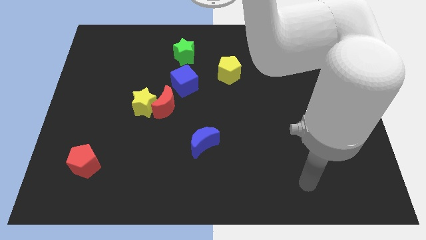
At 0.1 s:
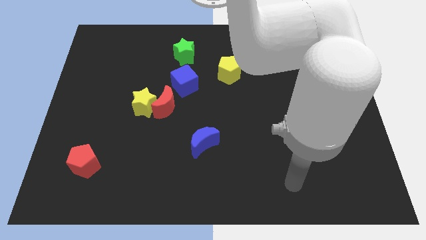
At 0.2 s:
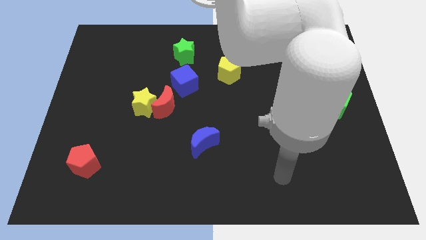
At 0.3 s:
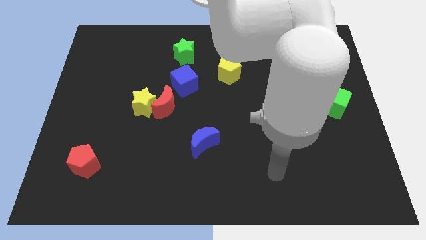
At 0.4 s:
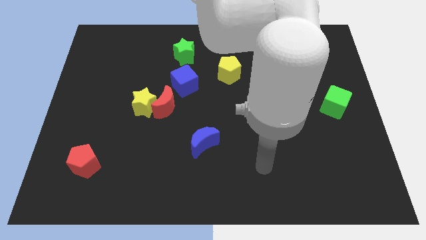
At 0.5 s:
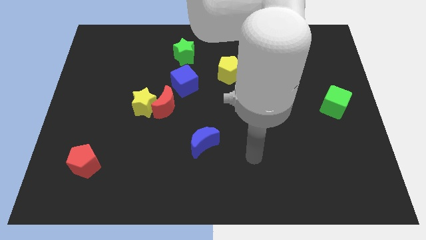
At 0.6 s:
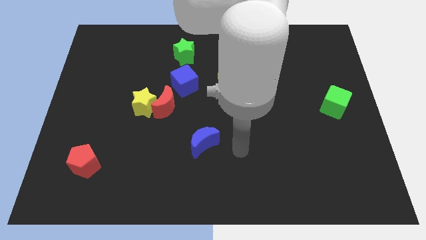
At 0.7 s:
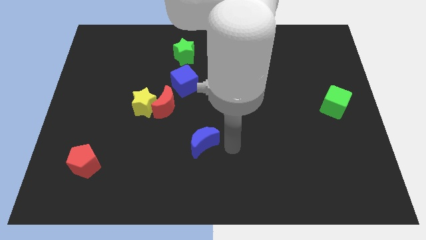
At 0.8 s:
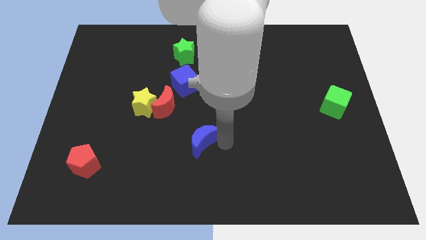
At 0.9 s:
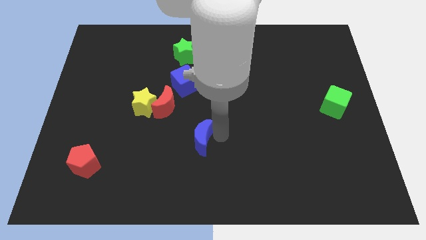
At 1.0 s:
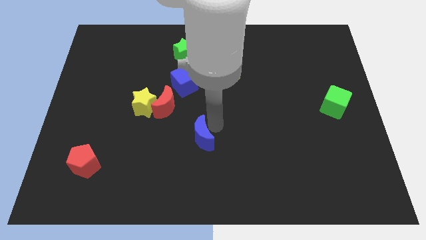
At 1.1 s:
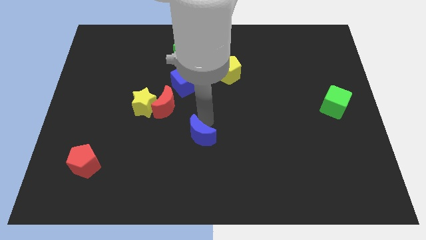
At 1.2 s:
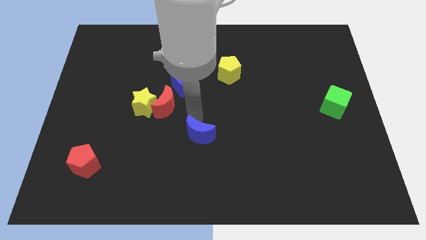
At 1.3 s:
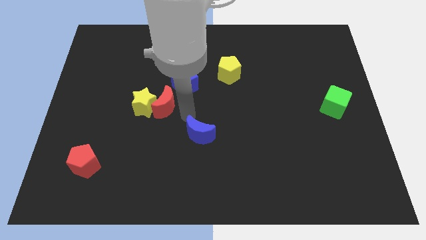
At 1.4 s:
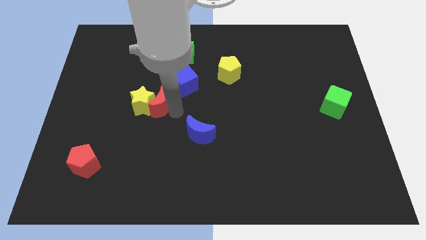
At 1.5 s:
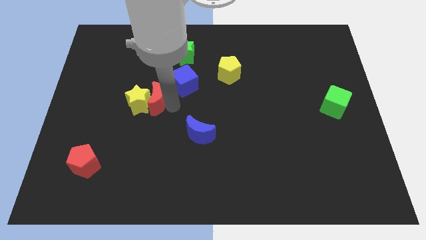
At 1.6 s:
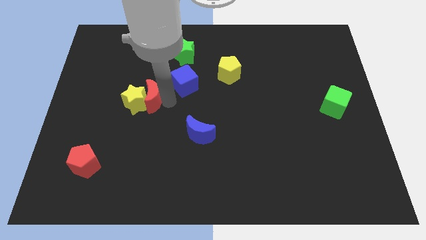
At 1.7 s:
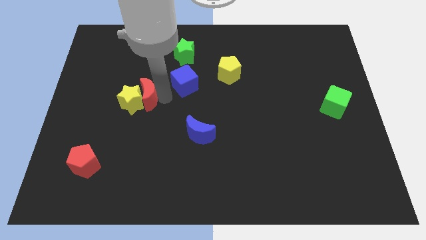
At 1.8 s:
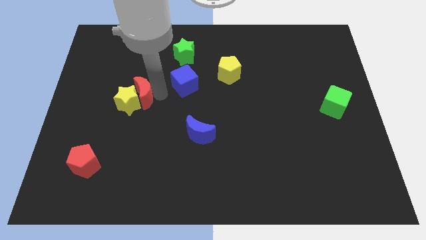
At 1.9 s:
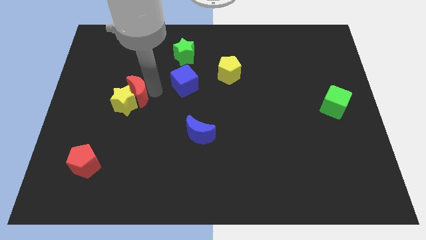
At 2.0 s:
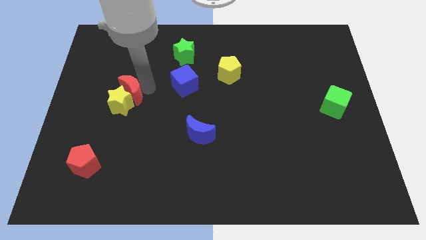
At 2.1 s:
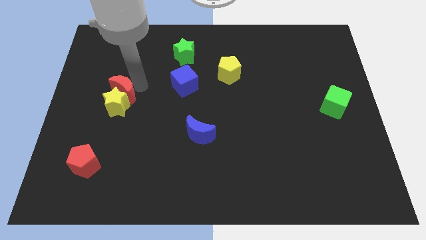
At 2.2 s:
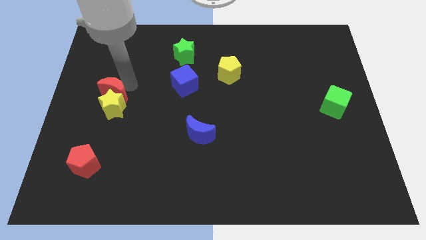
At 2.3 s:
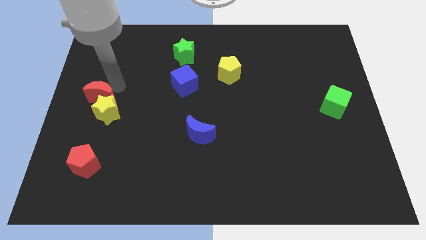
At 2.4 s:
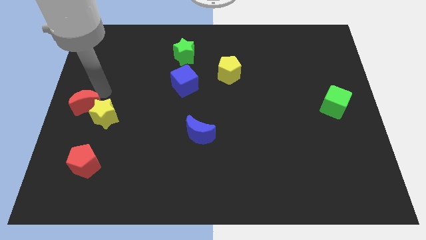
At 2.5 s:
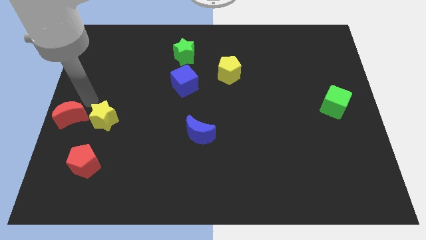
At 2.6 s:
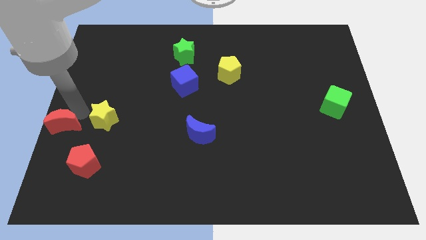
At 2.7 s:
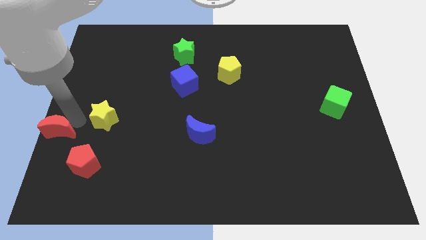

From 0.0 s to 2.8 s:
separate the yellow star from the red moon

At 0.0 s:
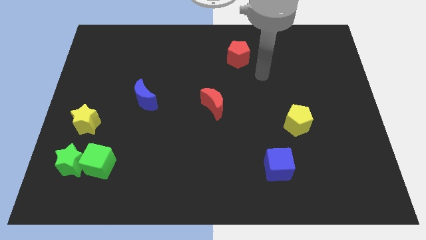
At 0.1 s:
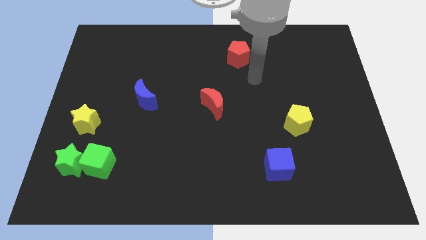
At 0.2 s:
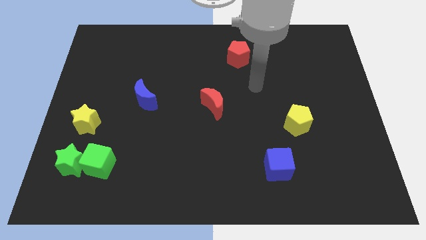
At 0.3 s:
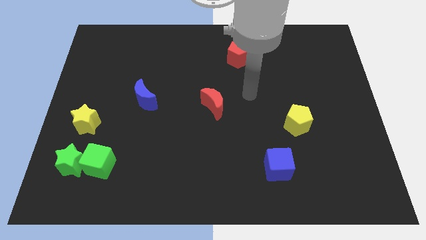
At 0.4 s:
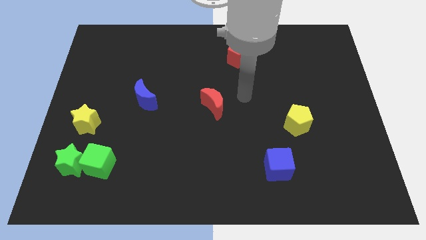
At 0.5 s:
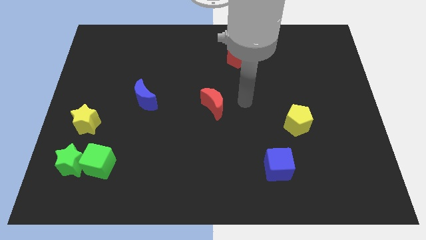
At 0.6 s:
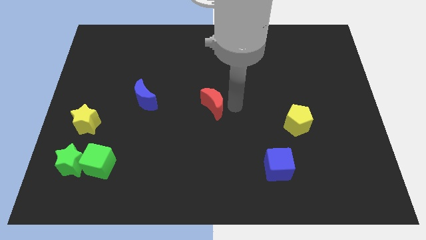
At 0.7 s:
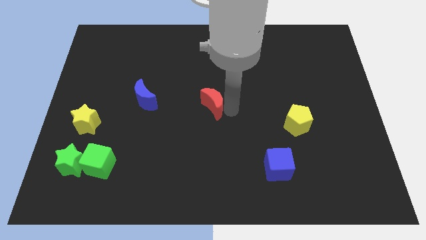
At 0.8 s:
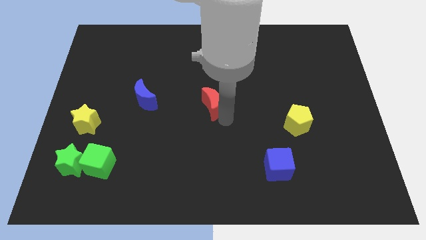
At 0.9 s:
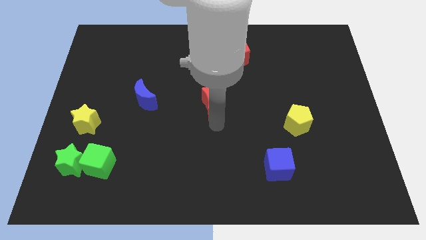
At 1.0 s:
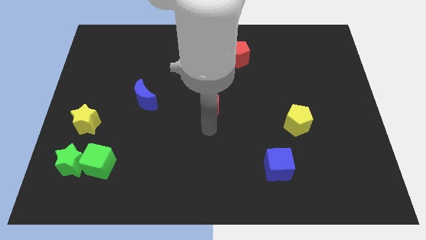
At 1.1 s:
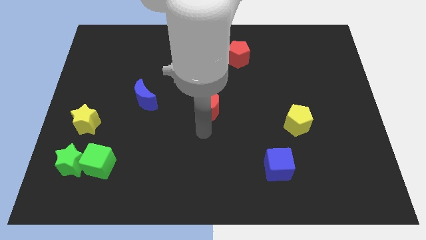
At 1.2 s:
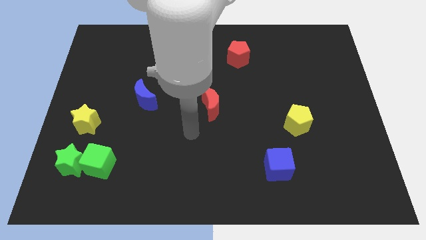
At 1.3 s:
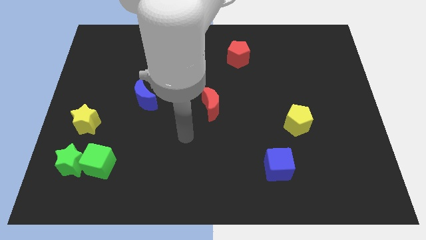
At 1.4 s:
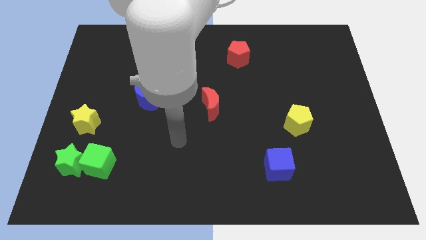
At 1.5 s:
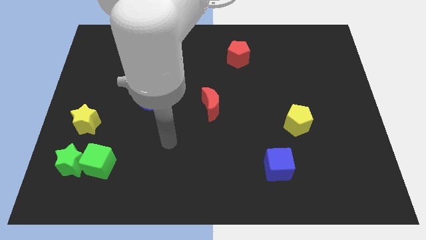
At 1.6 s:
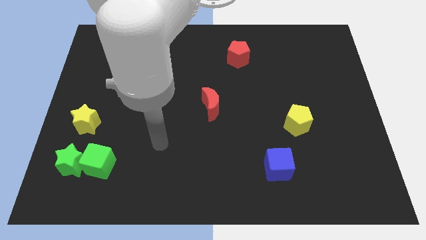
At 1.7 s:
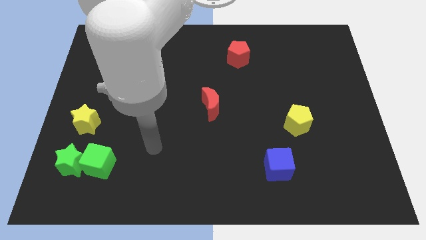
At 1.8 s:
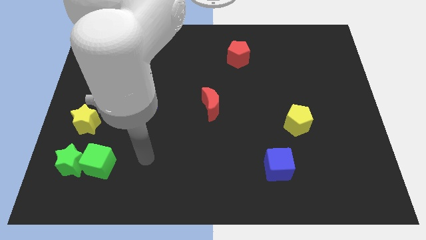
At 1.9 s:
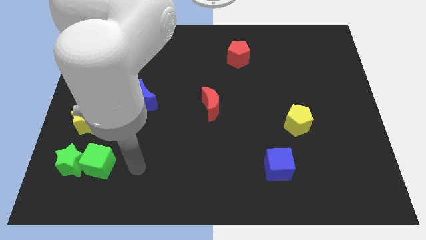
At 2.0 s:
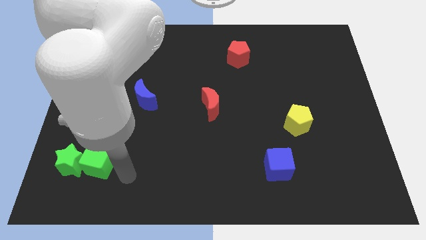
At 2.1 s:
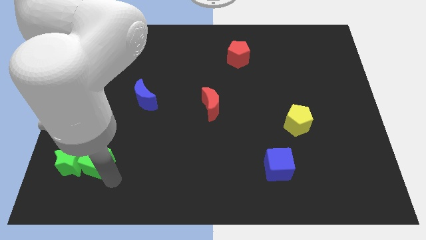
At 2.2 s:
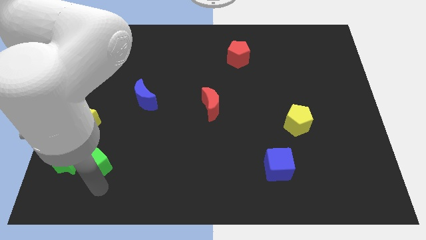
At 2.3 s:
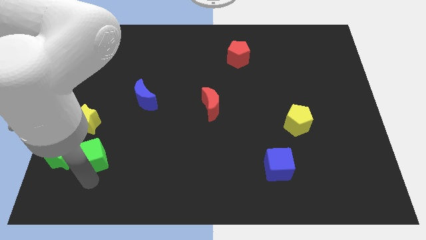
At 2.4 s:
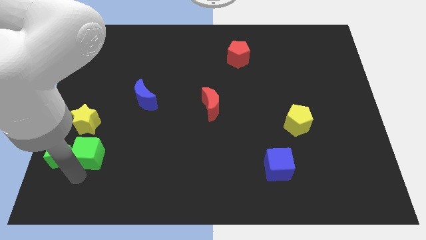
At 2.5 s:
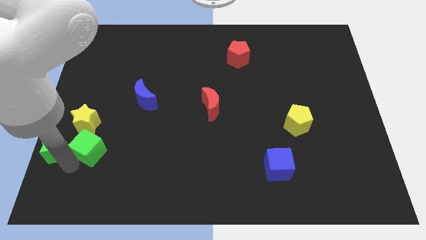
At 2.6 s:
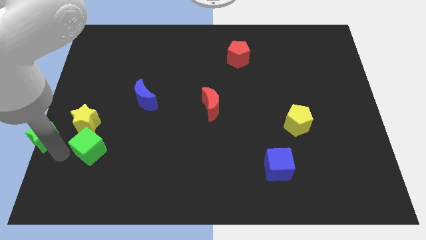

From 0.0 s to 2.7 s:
pull the green cube apart from the green star

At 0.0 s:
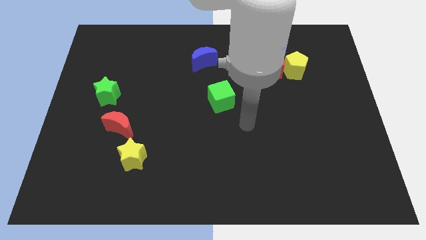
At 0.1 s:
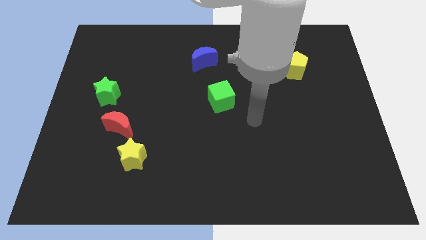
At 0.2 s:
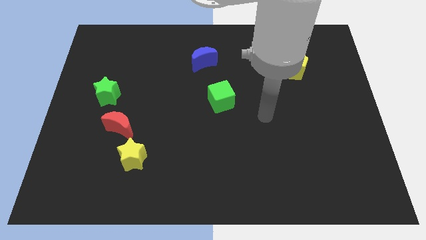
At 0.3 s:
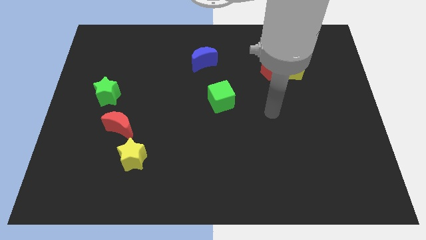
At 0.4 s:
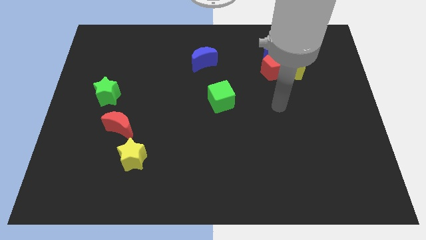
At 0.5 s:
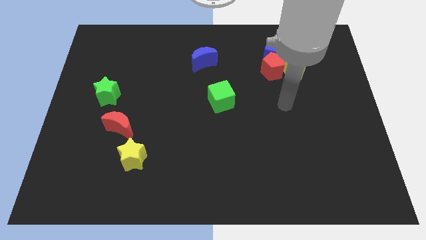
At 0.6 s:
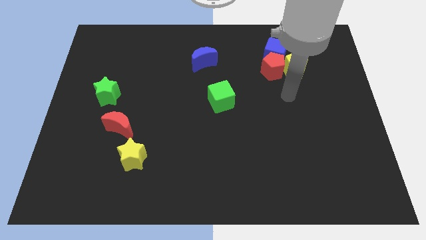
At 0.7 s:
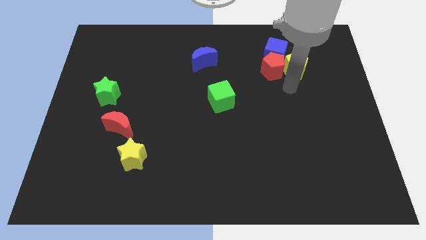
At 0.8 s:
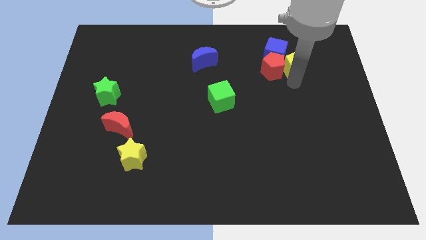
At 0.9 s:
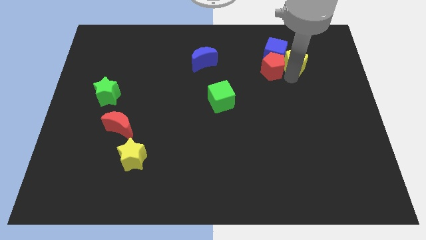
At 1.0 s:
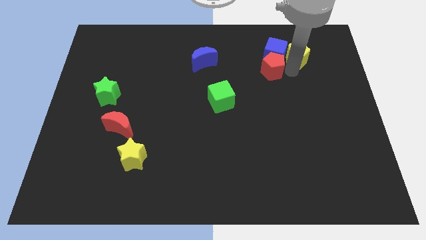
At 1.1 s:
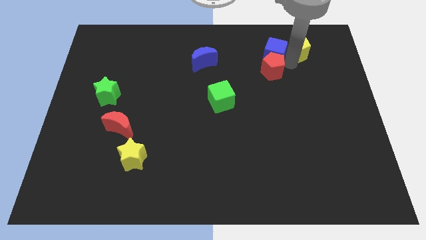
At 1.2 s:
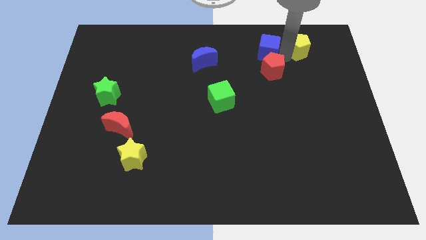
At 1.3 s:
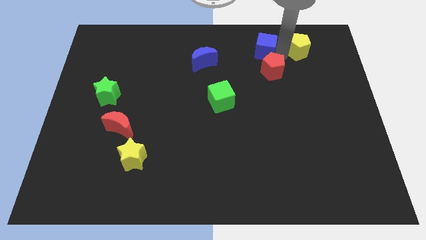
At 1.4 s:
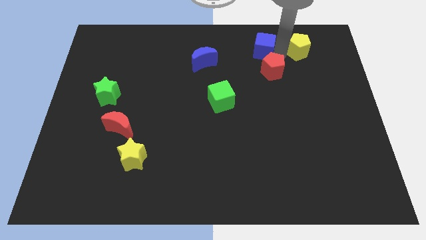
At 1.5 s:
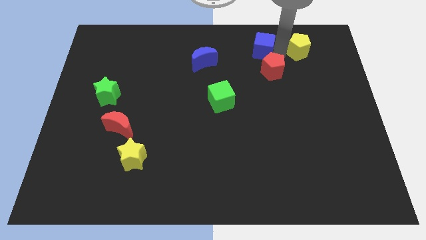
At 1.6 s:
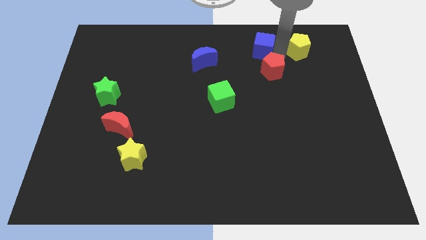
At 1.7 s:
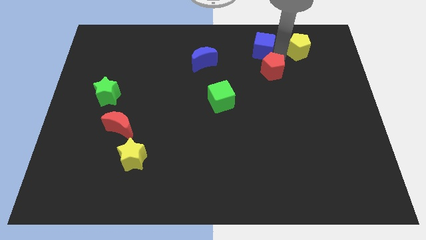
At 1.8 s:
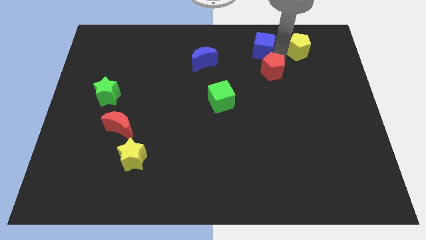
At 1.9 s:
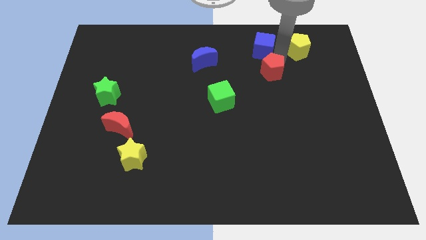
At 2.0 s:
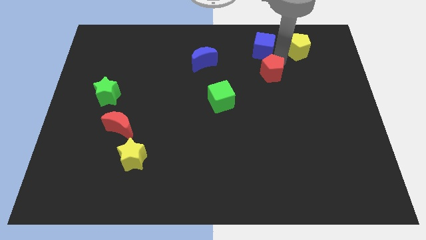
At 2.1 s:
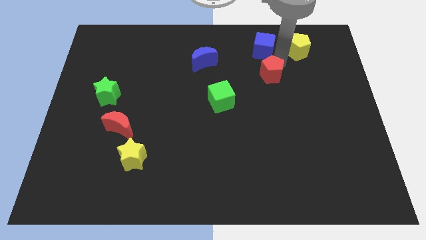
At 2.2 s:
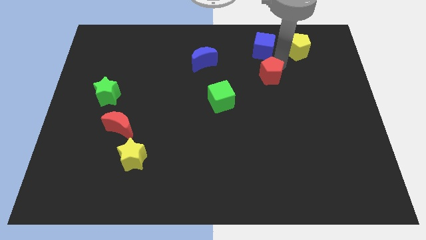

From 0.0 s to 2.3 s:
pull the red pentagon apart from the blue cube and yellow pentagon

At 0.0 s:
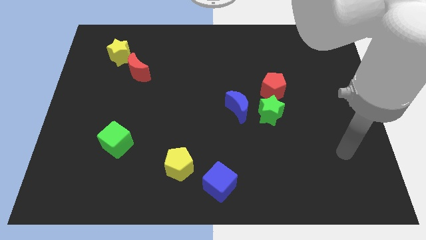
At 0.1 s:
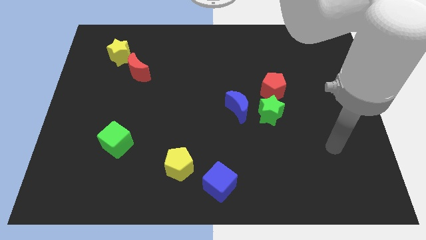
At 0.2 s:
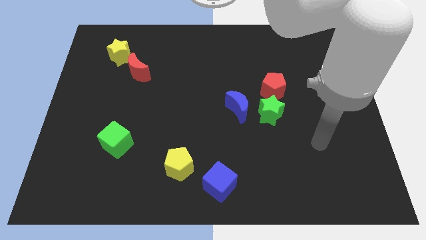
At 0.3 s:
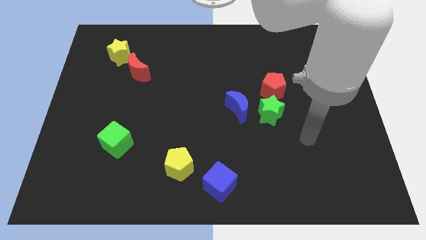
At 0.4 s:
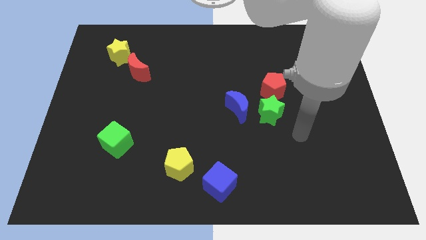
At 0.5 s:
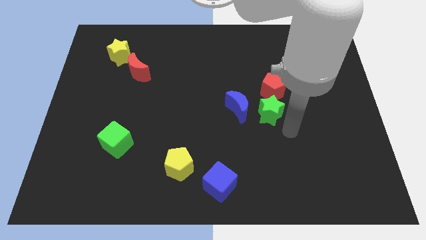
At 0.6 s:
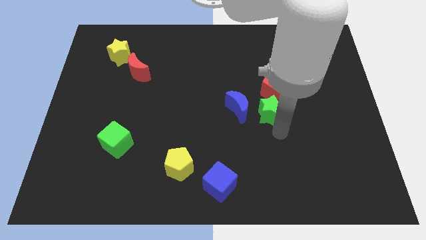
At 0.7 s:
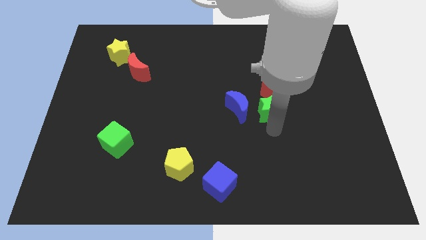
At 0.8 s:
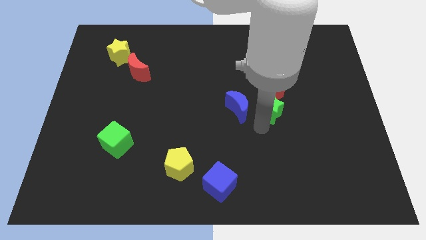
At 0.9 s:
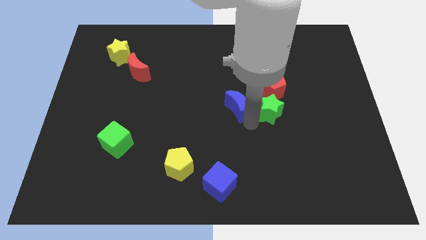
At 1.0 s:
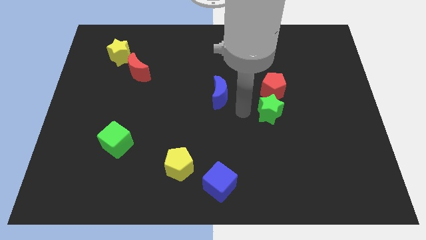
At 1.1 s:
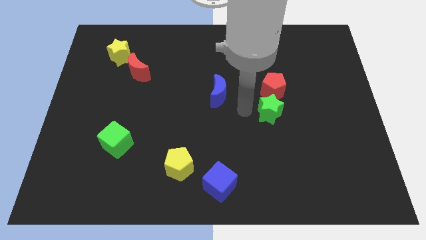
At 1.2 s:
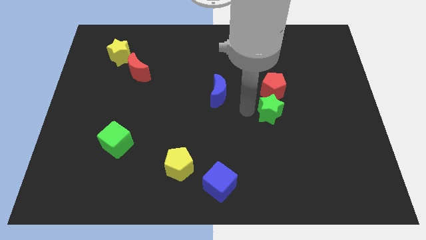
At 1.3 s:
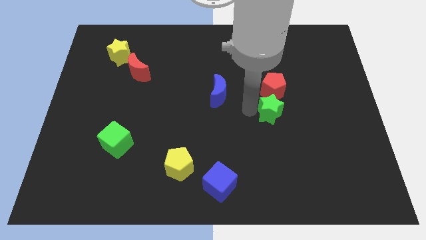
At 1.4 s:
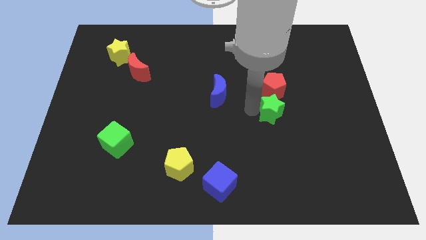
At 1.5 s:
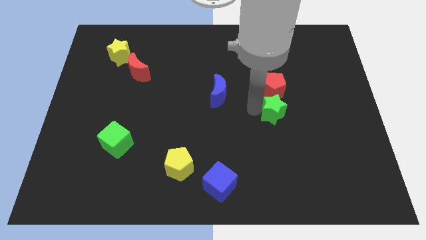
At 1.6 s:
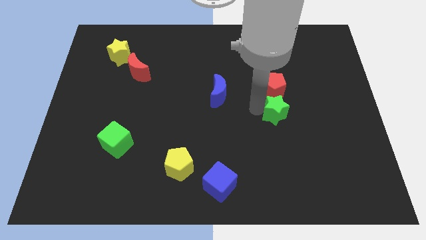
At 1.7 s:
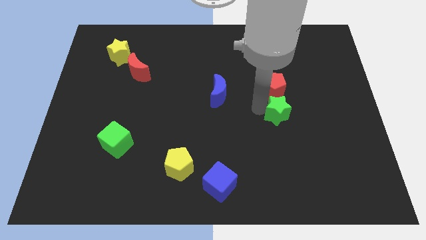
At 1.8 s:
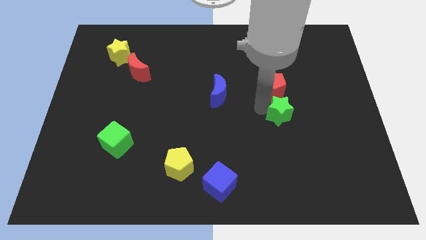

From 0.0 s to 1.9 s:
pull the green star apart from the red pentagon and blue moon
